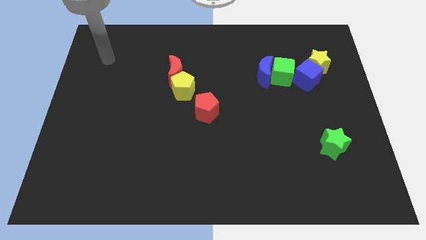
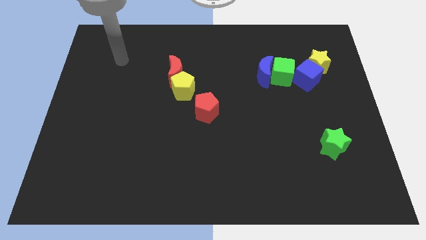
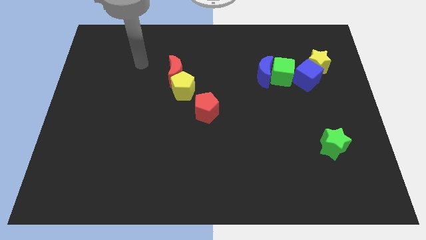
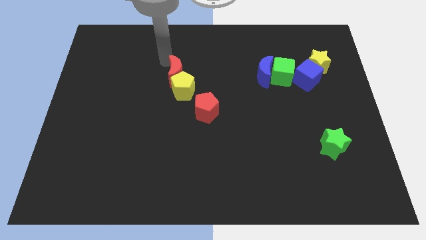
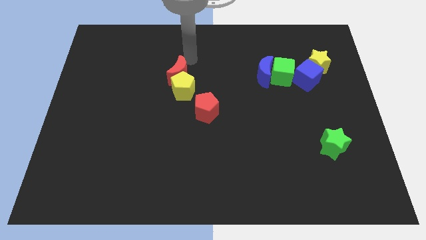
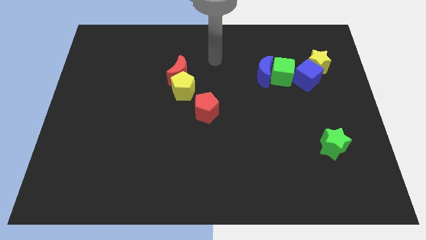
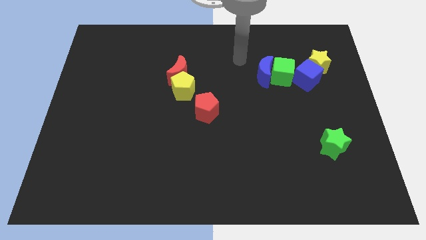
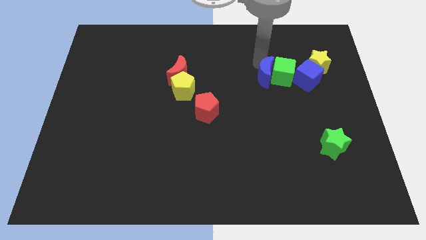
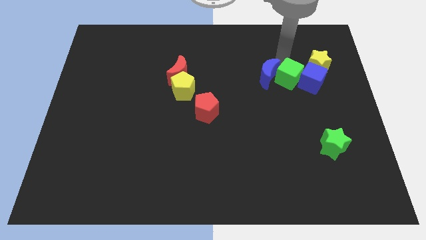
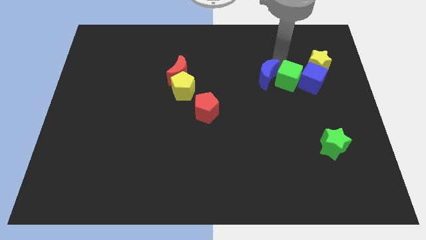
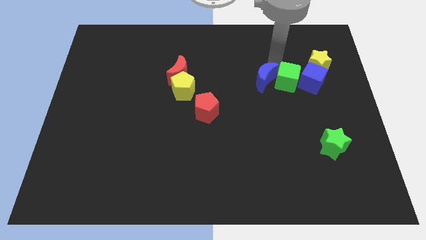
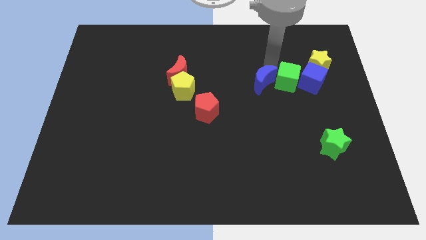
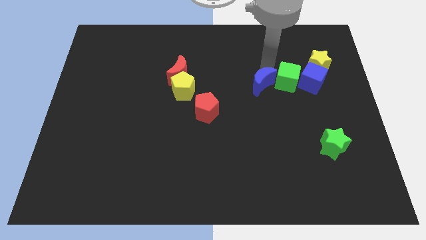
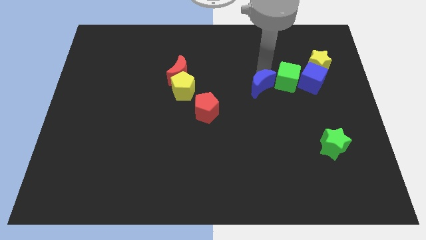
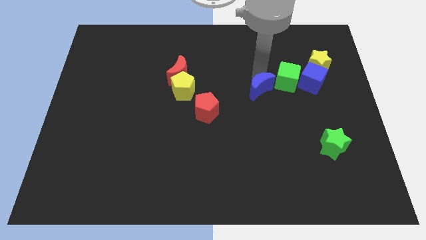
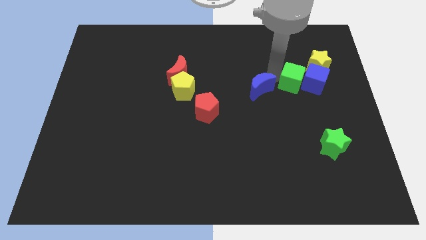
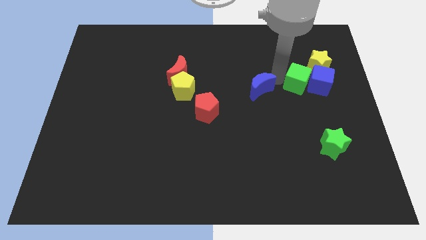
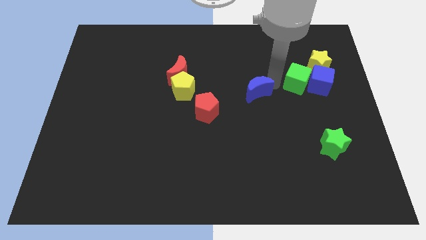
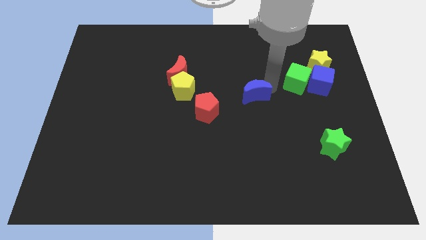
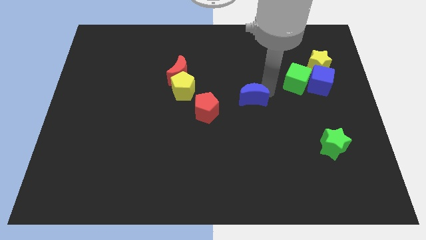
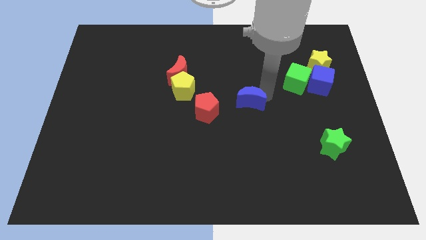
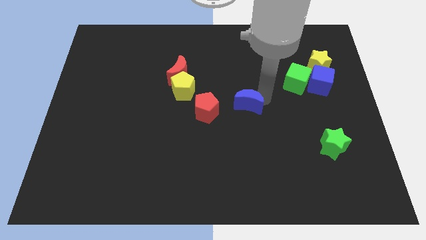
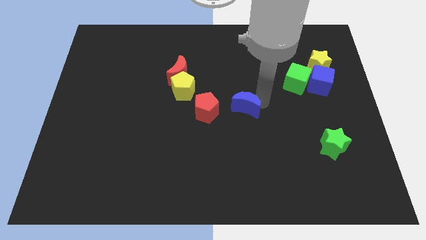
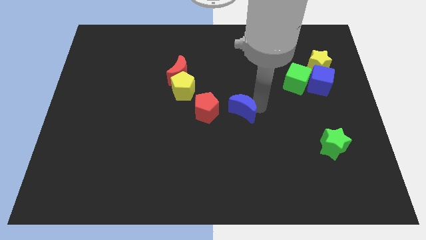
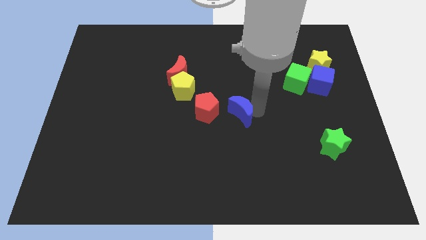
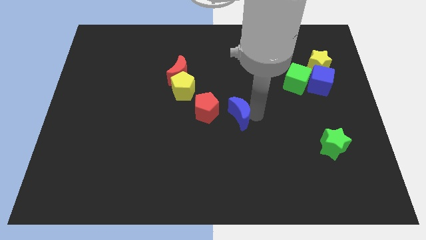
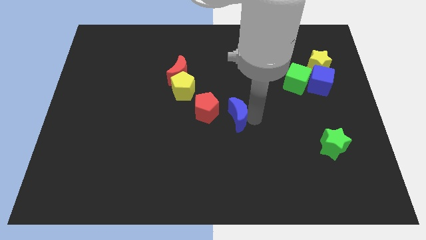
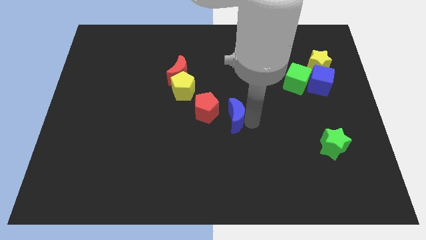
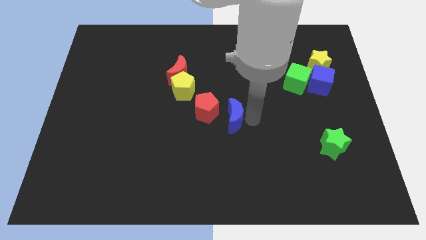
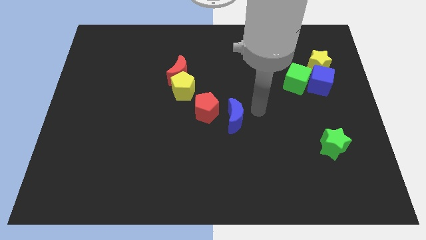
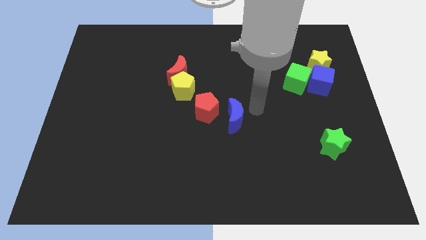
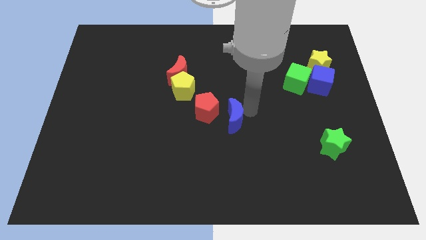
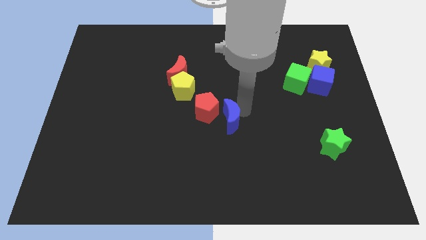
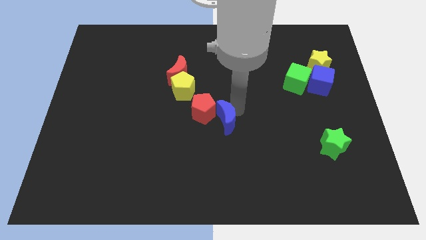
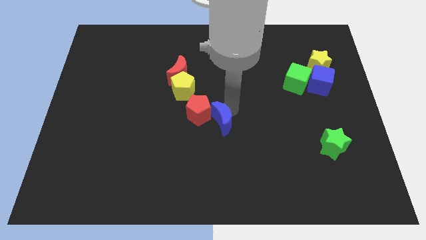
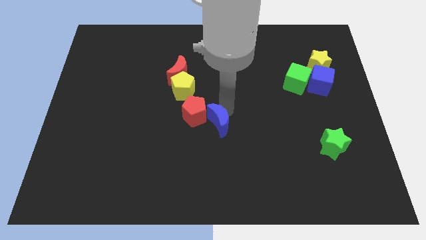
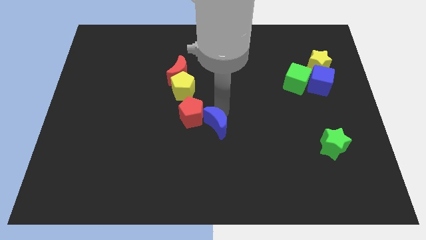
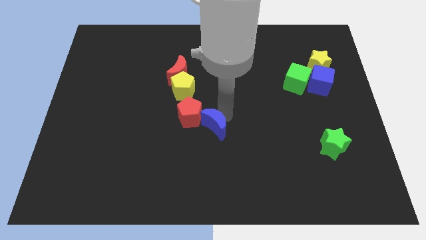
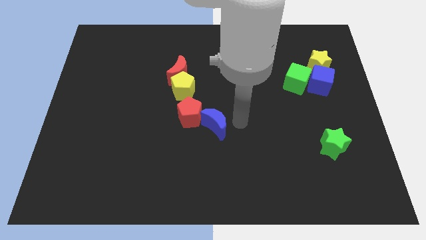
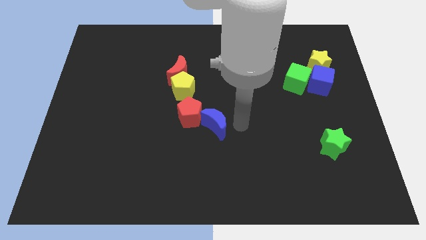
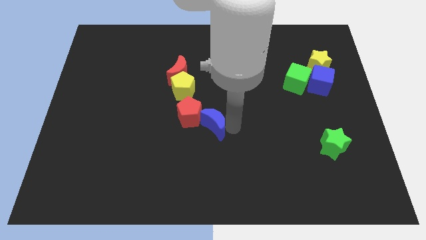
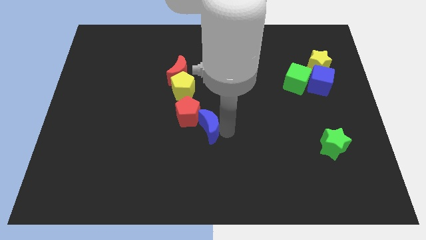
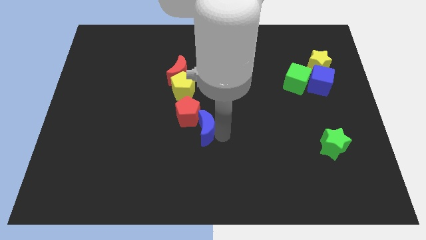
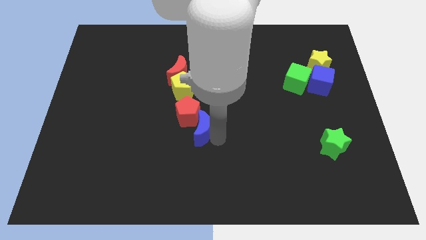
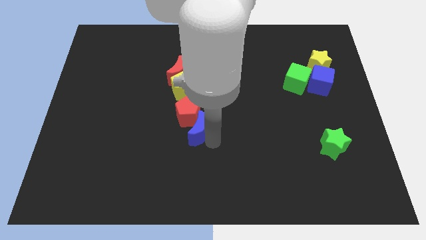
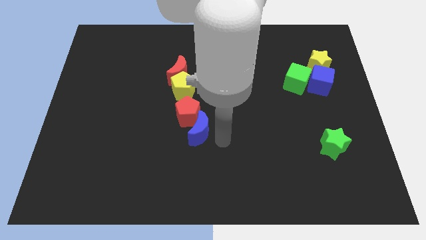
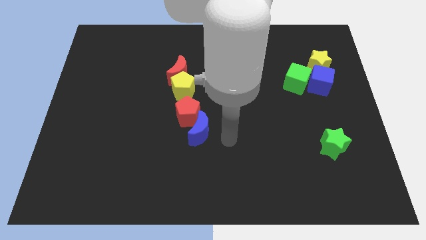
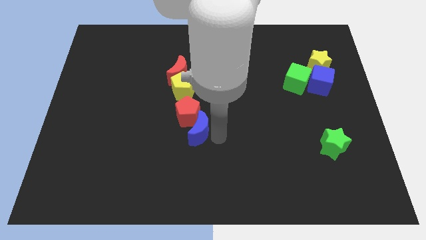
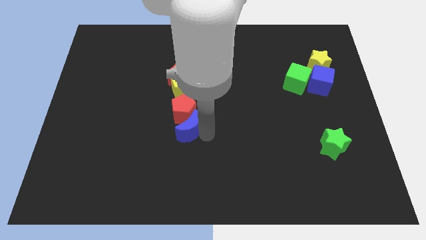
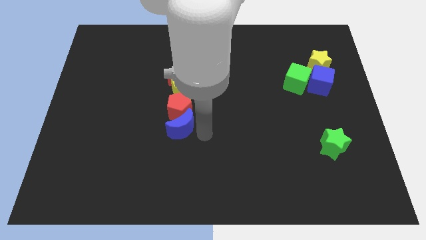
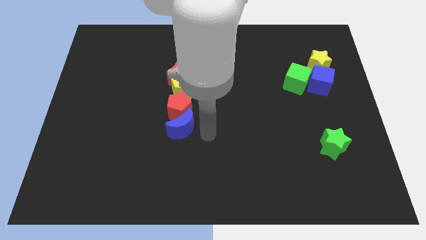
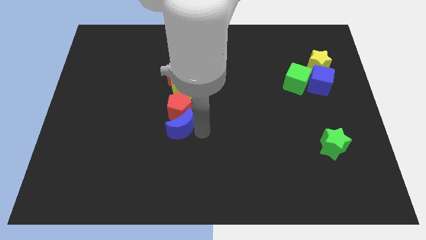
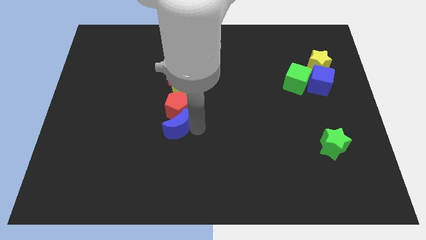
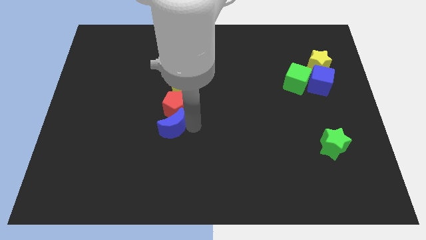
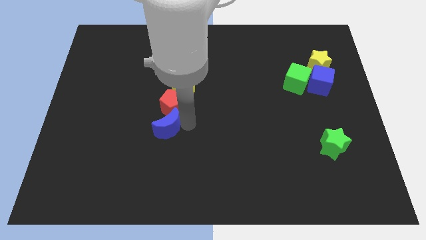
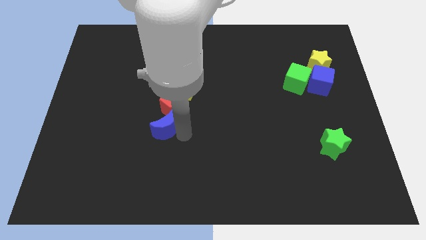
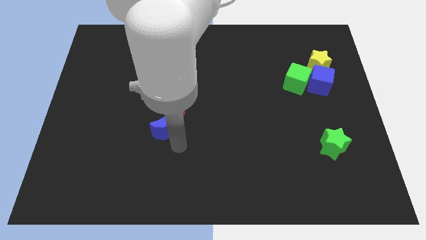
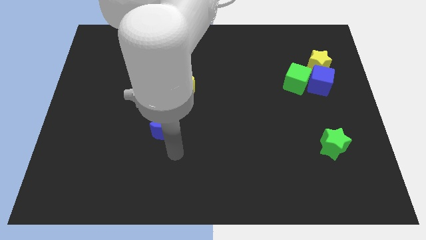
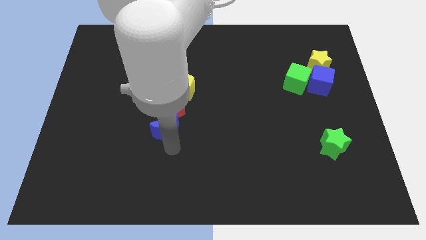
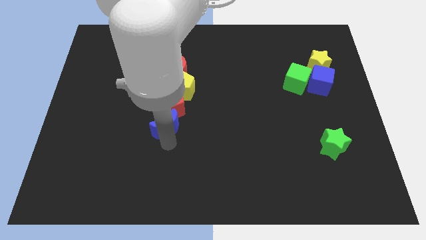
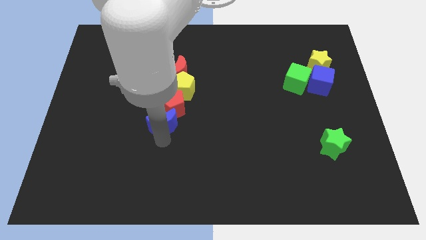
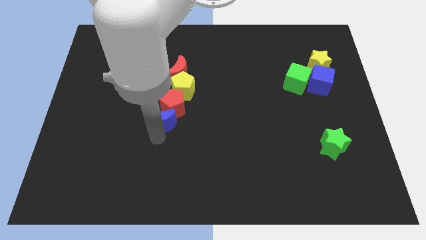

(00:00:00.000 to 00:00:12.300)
move the blue moon to the bottom left of the yellow pentagon

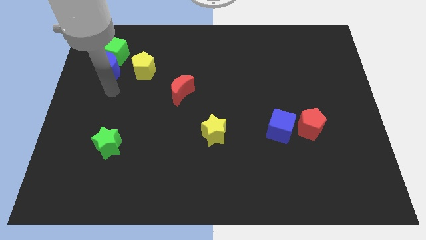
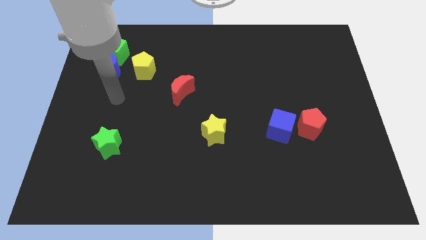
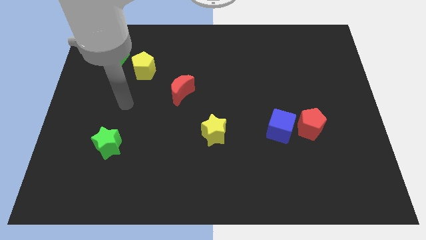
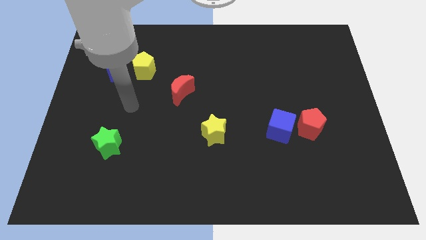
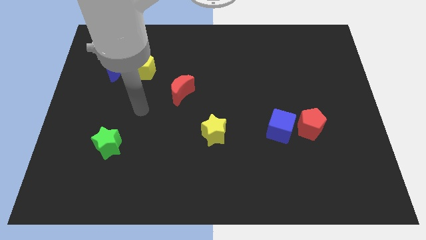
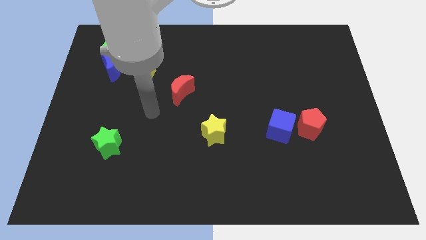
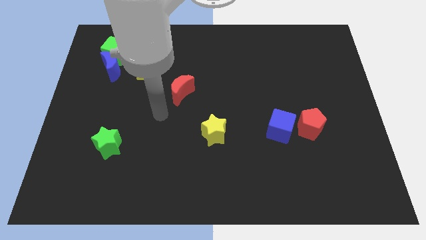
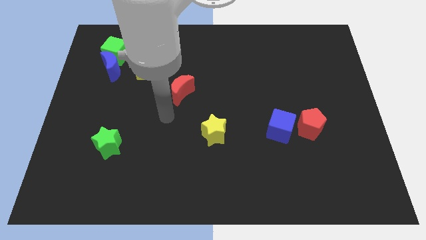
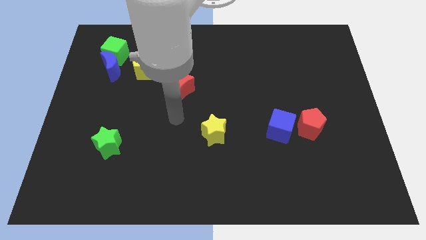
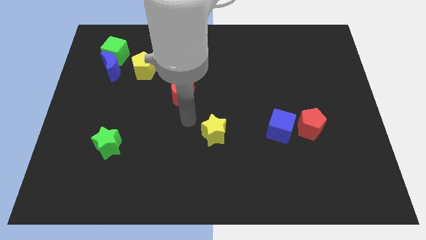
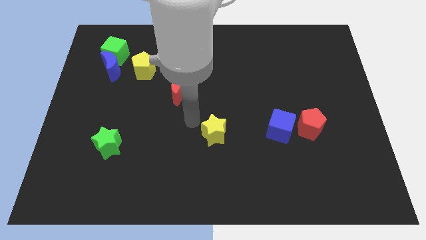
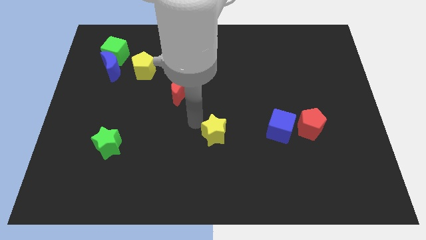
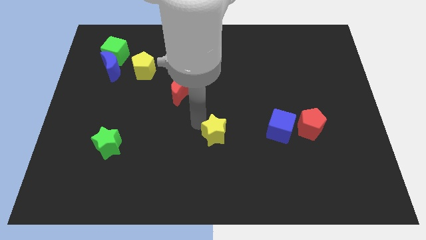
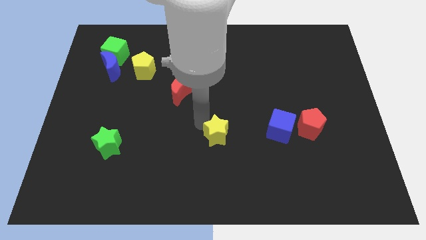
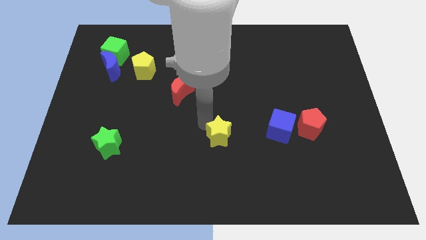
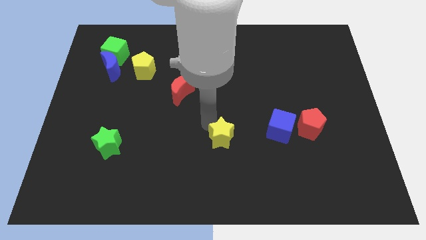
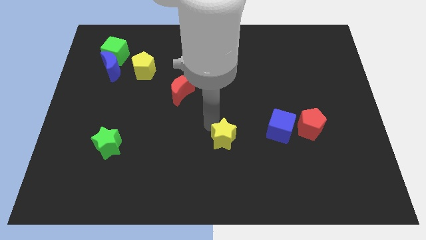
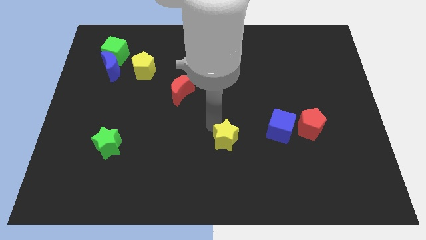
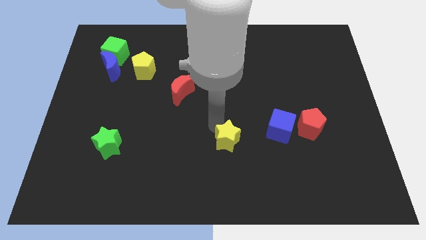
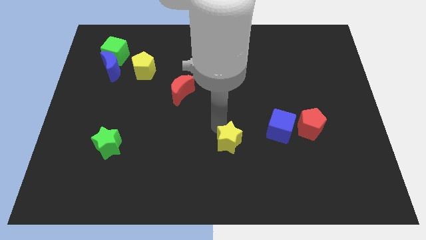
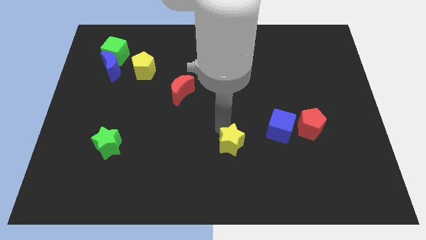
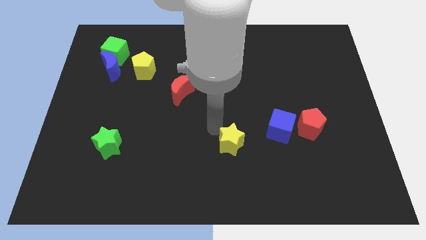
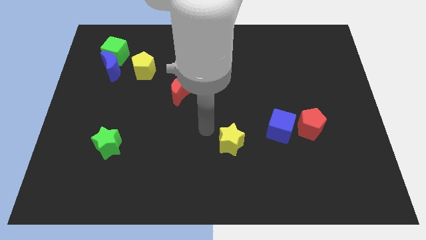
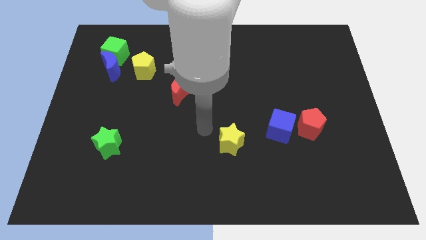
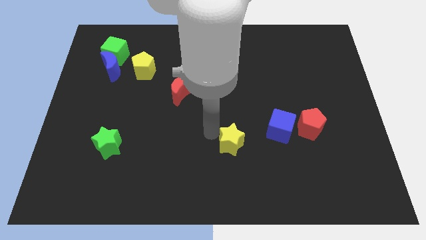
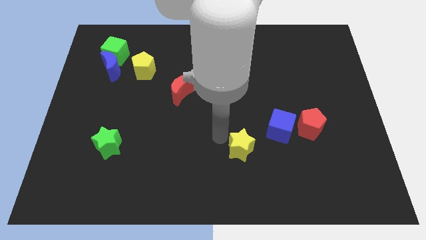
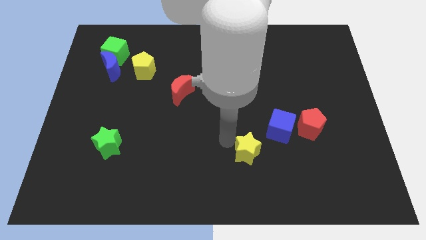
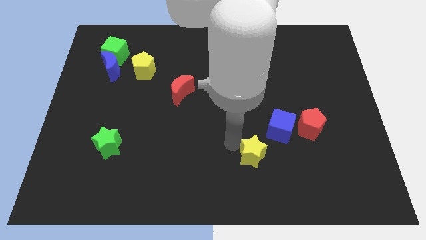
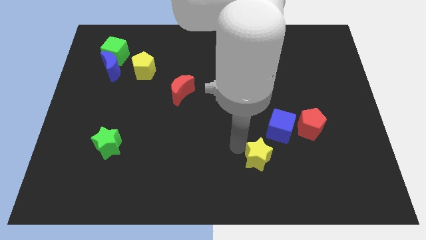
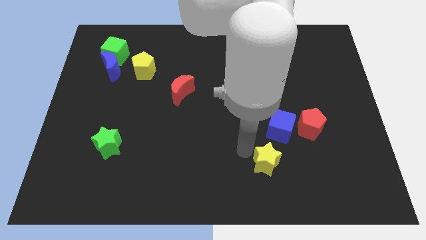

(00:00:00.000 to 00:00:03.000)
move the yellow star to the bottom of the blue cube
